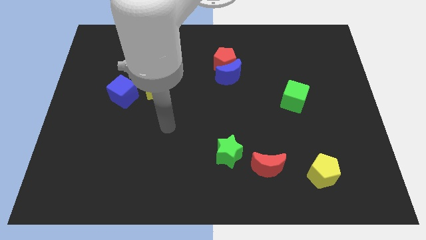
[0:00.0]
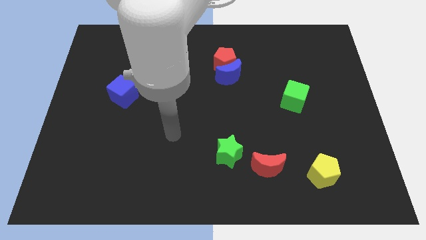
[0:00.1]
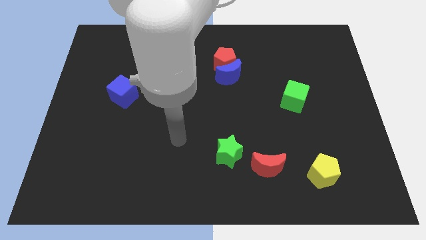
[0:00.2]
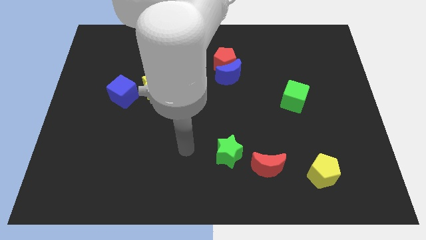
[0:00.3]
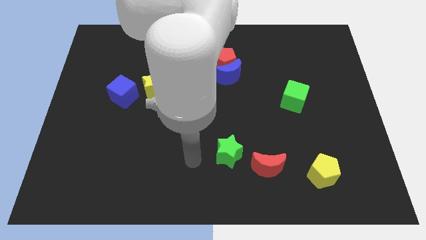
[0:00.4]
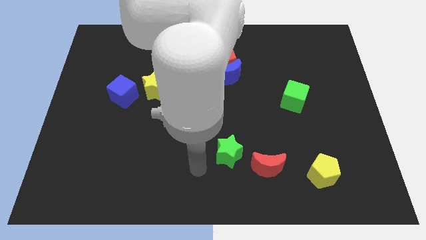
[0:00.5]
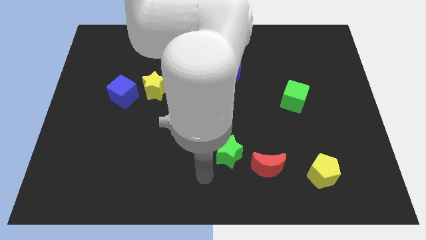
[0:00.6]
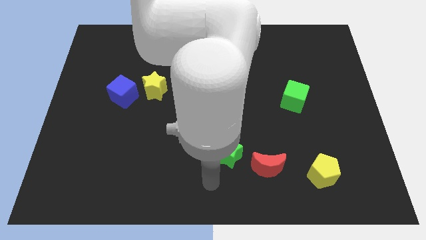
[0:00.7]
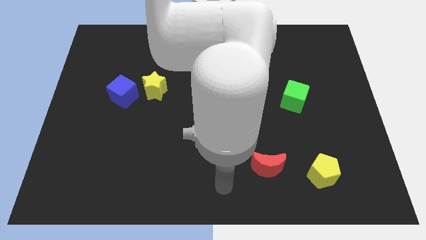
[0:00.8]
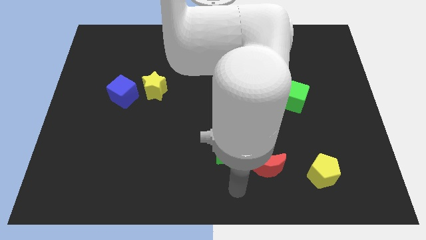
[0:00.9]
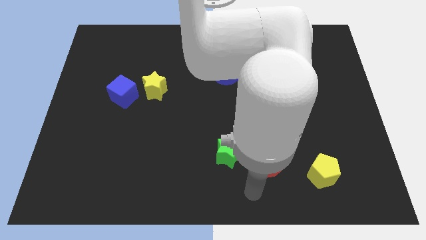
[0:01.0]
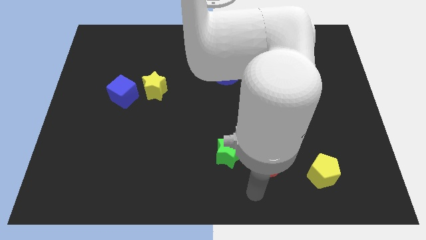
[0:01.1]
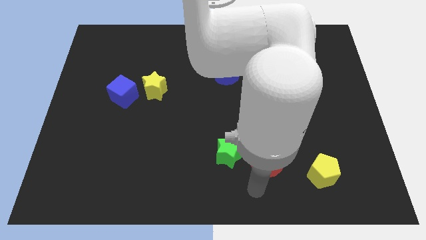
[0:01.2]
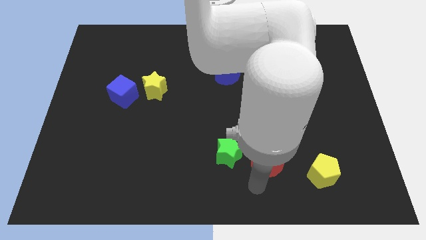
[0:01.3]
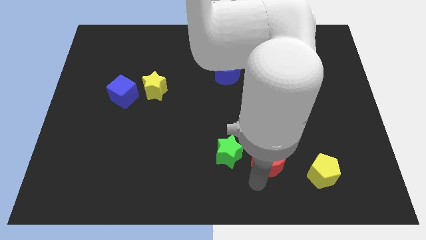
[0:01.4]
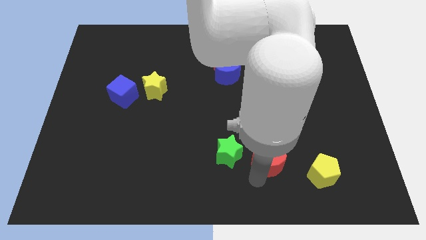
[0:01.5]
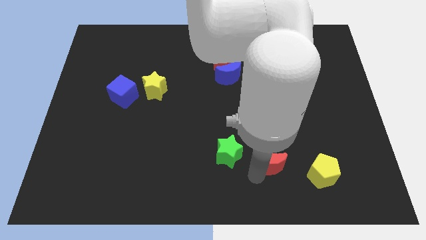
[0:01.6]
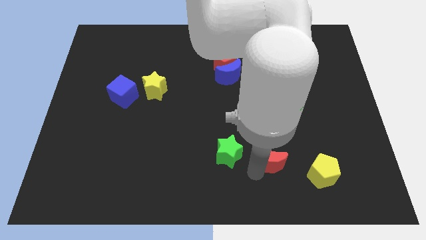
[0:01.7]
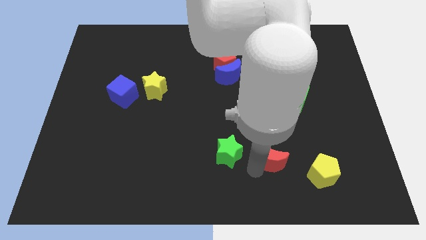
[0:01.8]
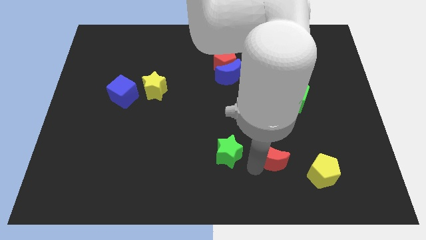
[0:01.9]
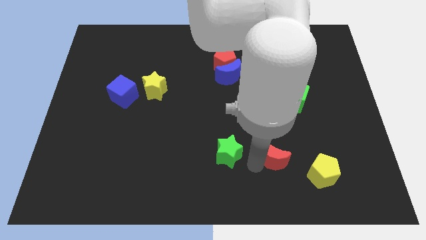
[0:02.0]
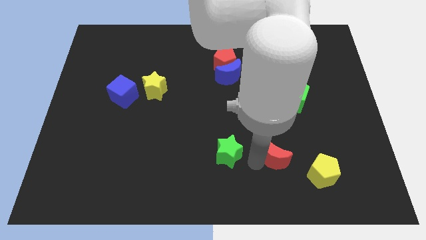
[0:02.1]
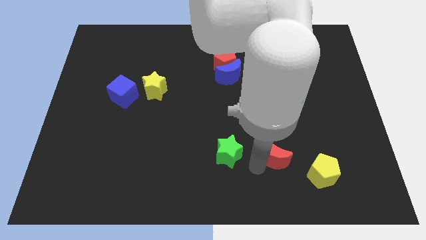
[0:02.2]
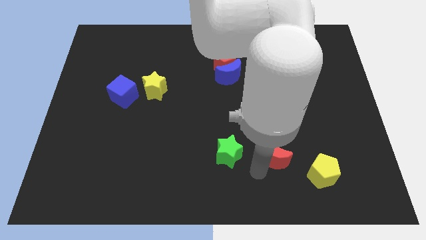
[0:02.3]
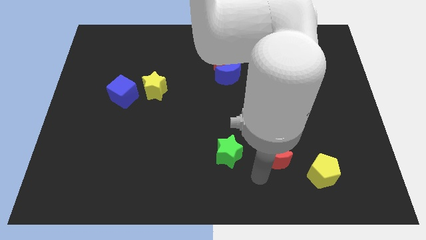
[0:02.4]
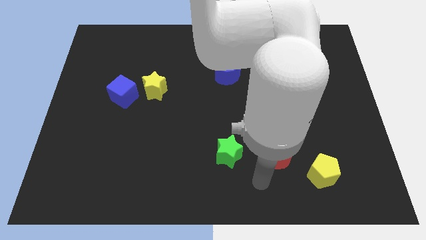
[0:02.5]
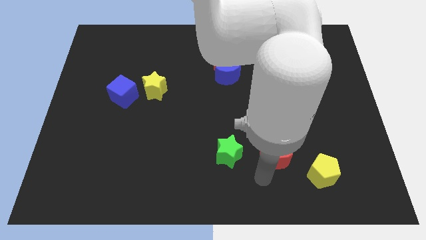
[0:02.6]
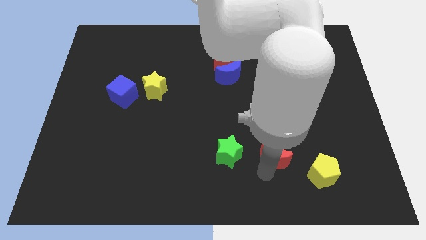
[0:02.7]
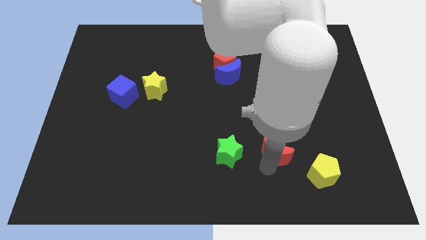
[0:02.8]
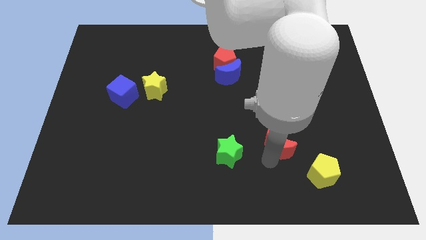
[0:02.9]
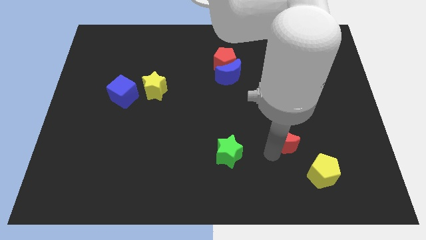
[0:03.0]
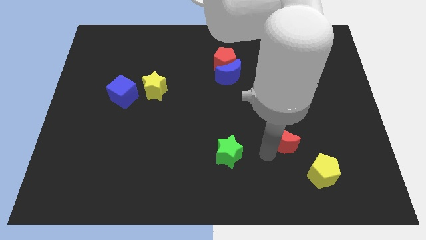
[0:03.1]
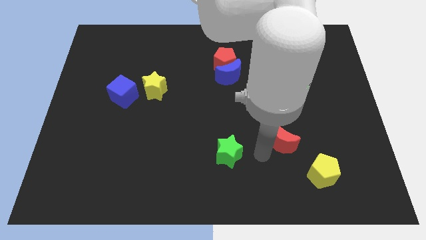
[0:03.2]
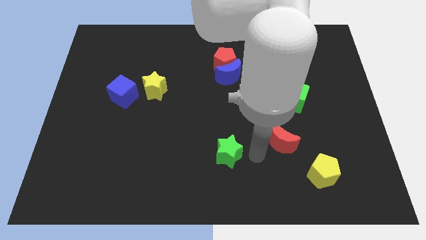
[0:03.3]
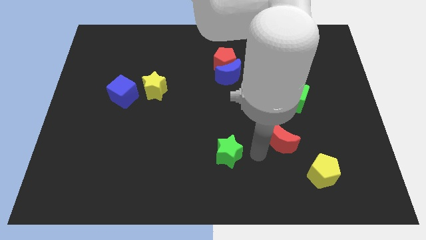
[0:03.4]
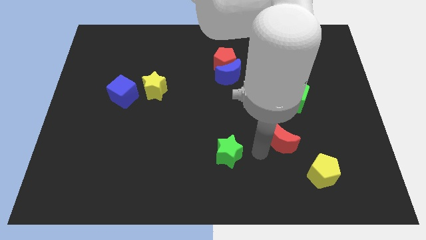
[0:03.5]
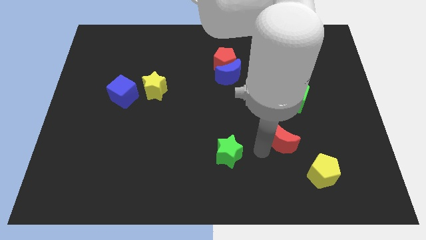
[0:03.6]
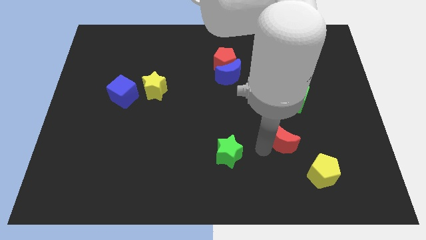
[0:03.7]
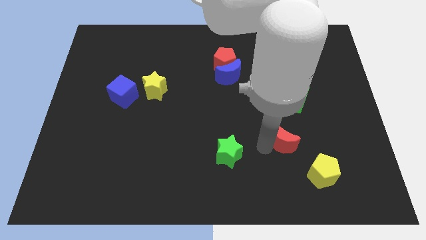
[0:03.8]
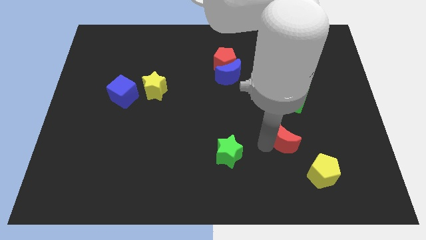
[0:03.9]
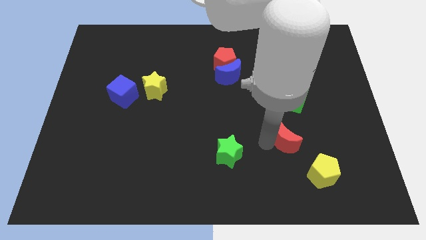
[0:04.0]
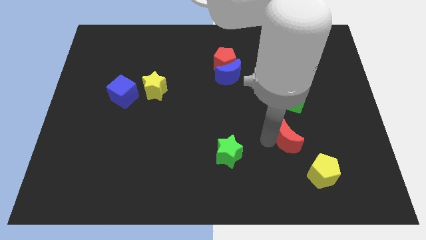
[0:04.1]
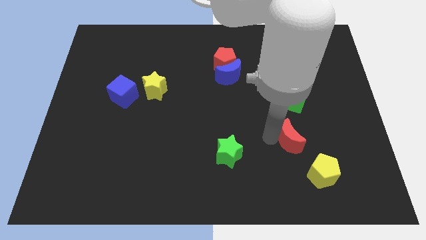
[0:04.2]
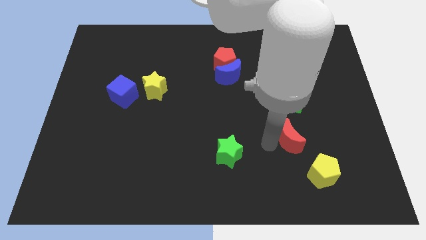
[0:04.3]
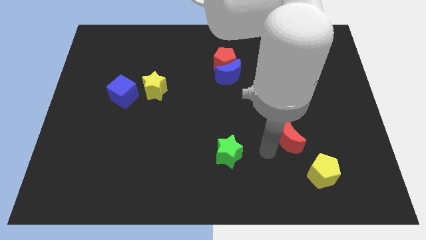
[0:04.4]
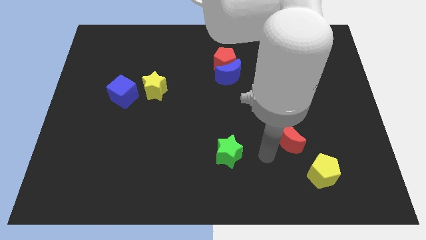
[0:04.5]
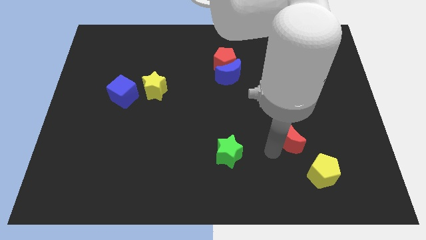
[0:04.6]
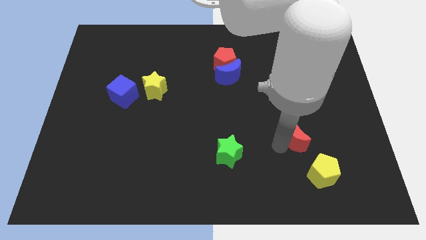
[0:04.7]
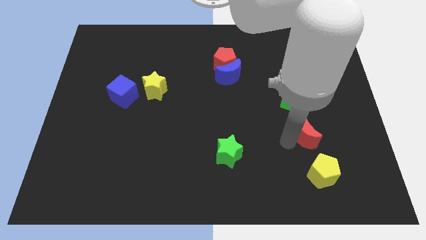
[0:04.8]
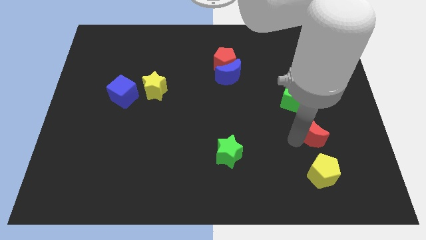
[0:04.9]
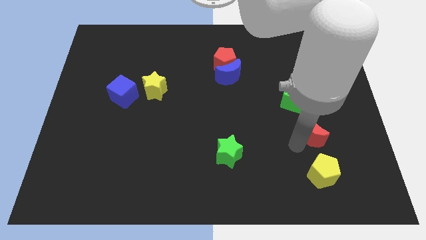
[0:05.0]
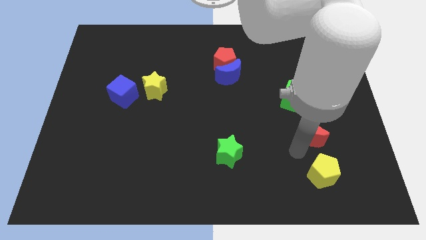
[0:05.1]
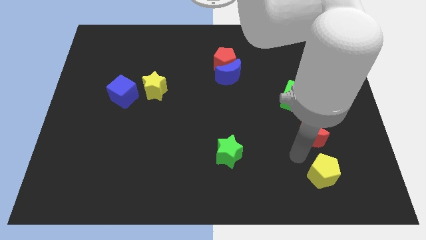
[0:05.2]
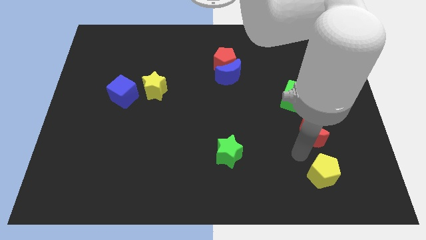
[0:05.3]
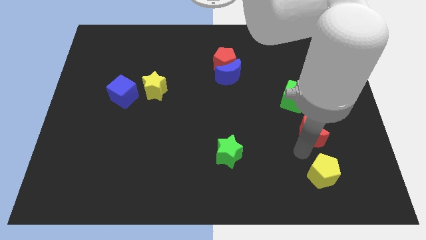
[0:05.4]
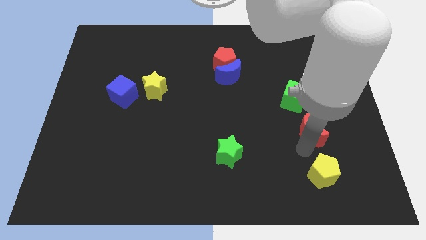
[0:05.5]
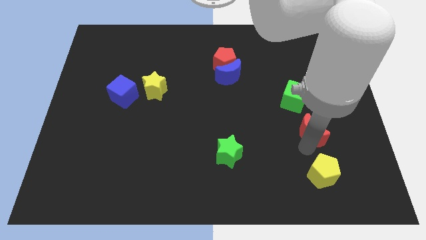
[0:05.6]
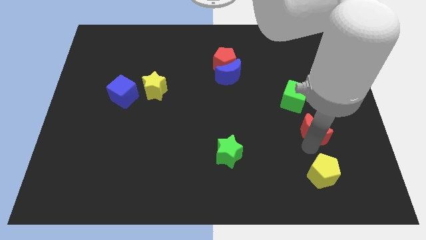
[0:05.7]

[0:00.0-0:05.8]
move the red moon to the bottom right of the green cube

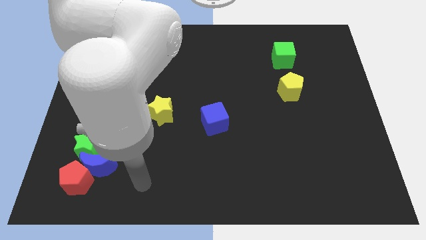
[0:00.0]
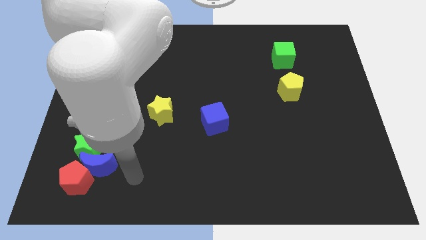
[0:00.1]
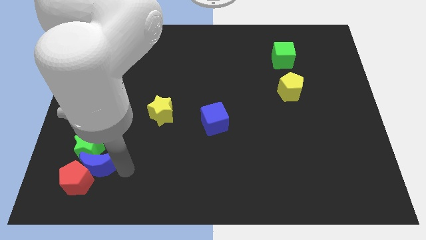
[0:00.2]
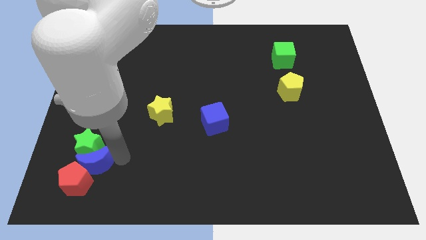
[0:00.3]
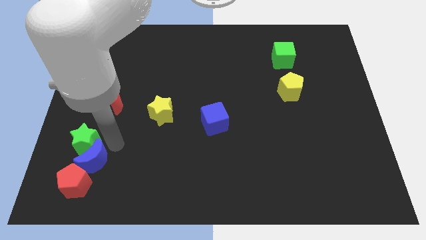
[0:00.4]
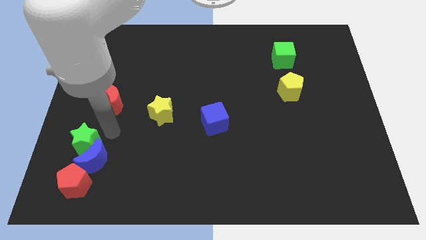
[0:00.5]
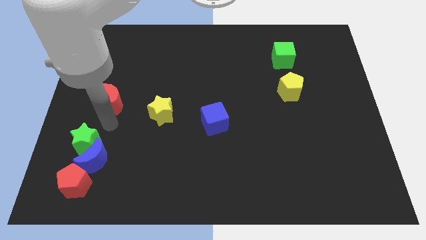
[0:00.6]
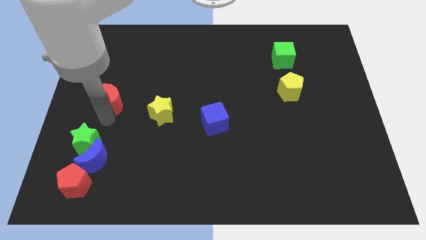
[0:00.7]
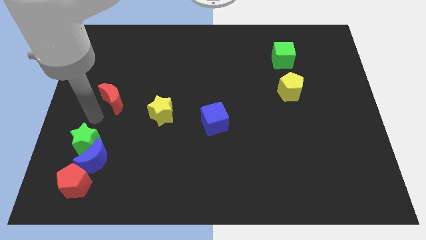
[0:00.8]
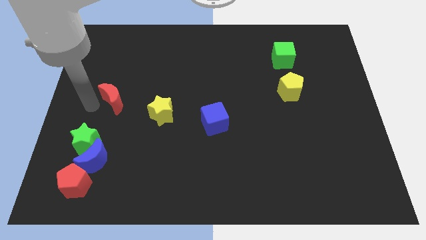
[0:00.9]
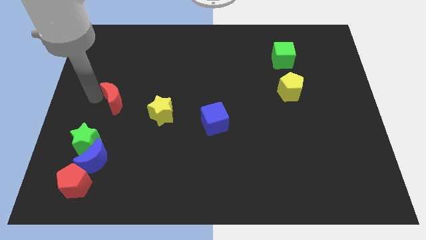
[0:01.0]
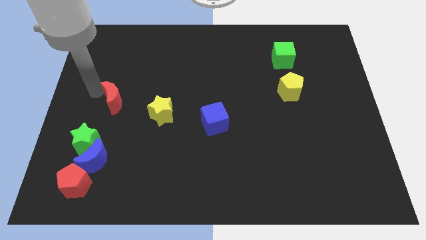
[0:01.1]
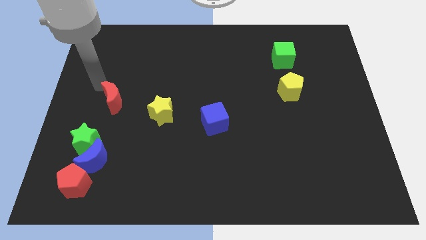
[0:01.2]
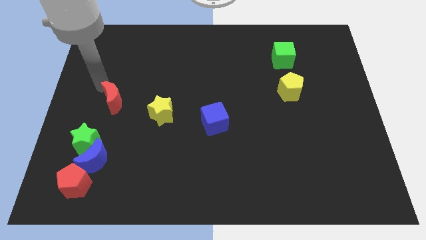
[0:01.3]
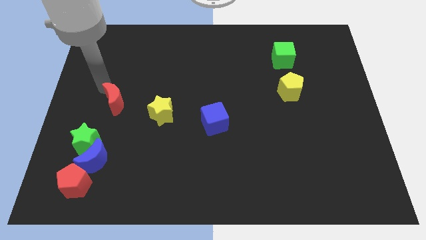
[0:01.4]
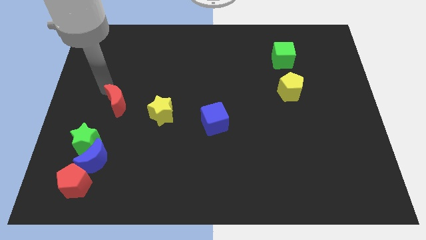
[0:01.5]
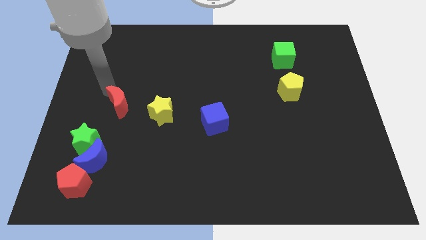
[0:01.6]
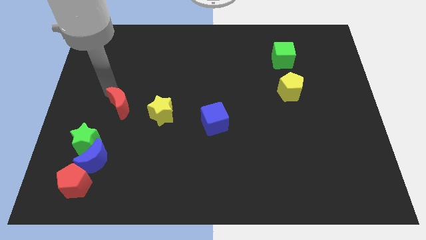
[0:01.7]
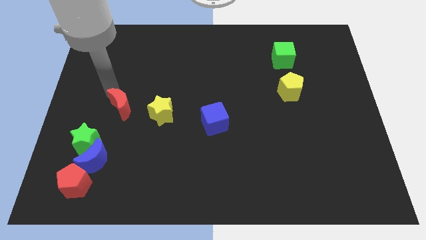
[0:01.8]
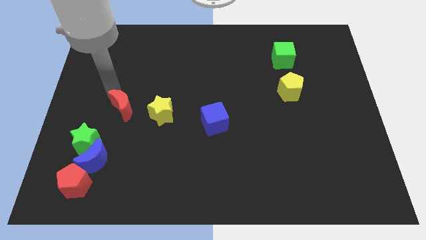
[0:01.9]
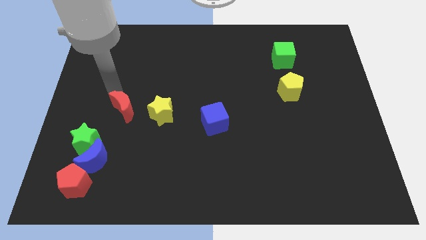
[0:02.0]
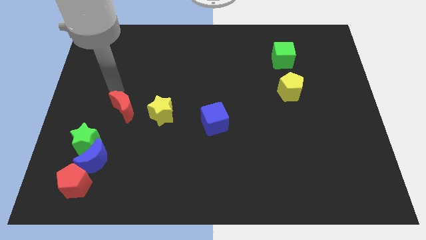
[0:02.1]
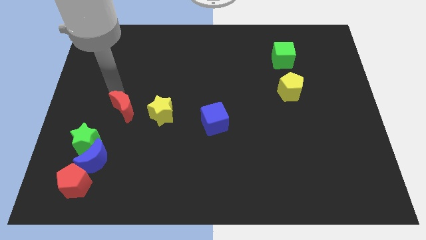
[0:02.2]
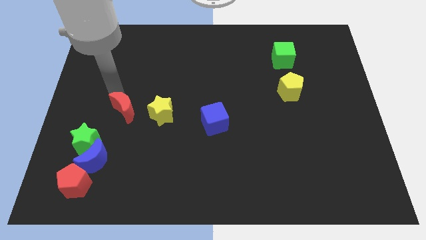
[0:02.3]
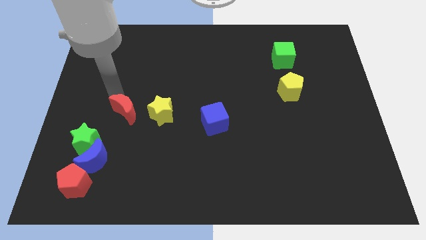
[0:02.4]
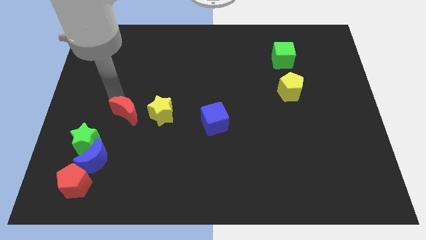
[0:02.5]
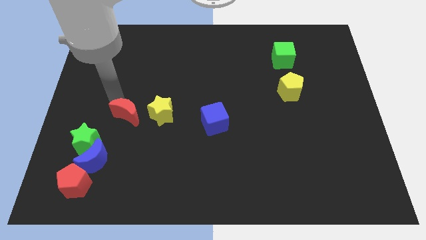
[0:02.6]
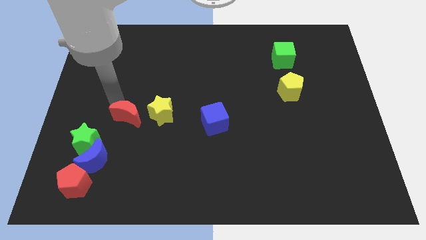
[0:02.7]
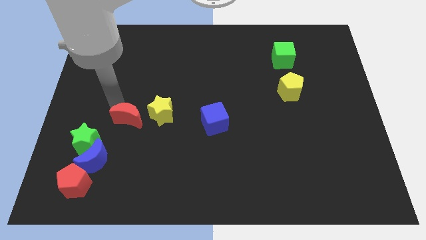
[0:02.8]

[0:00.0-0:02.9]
push the red moon to the bottom left of the yellow star
